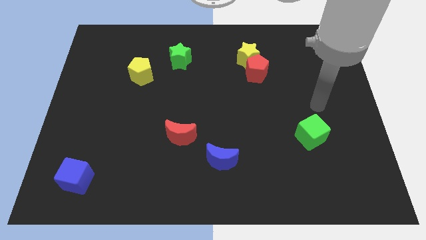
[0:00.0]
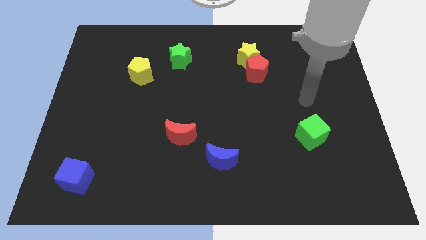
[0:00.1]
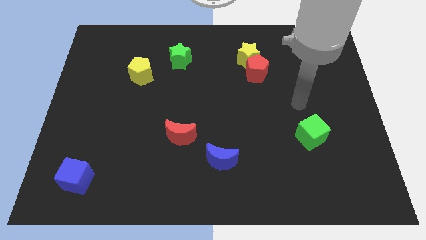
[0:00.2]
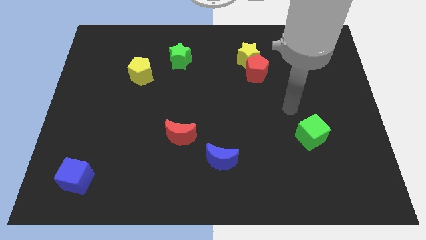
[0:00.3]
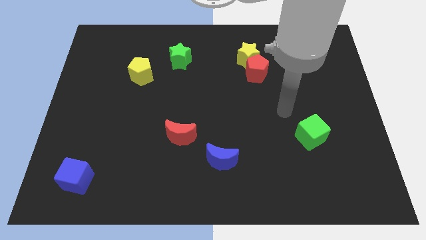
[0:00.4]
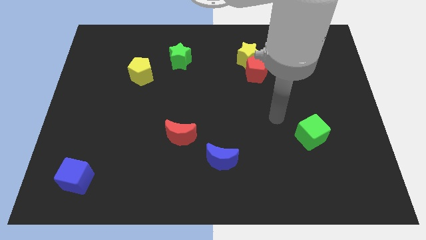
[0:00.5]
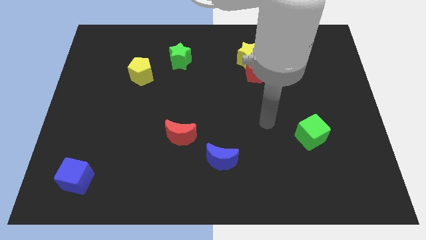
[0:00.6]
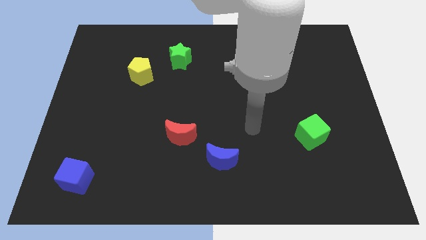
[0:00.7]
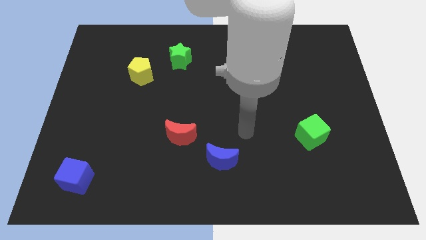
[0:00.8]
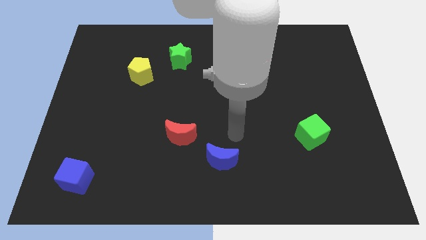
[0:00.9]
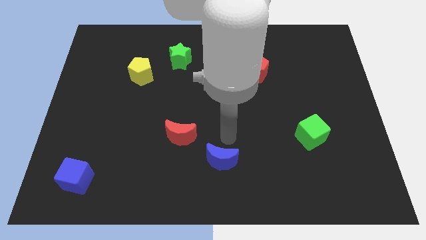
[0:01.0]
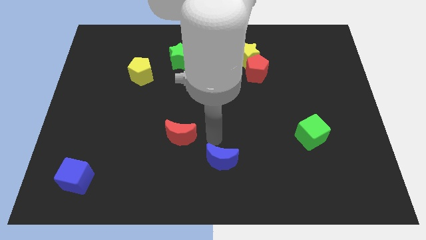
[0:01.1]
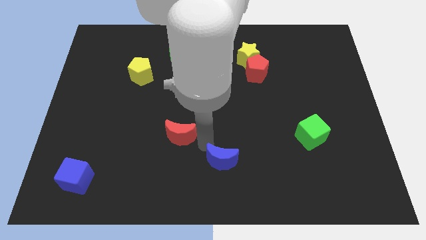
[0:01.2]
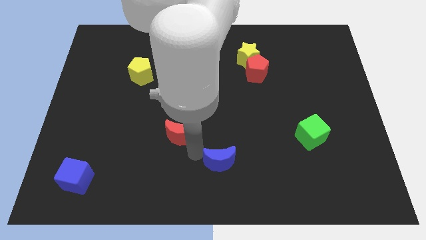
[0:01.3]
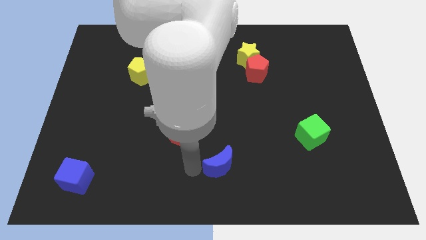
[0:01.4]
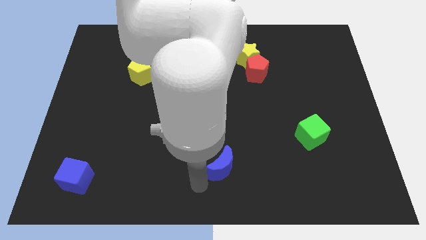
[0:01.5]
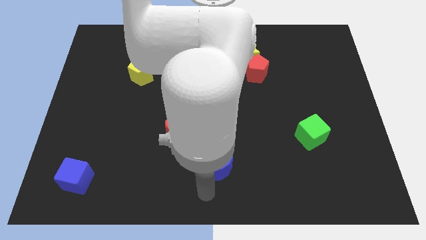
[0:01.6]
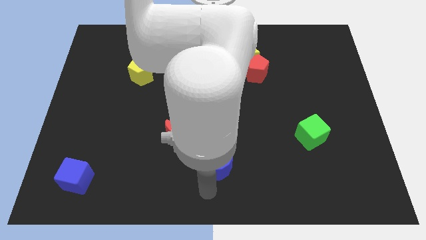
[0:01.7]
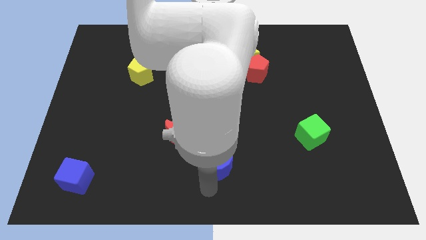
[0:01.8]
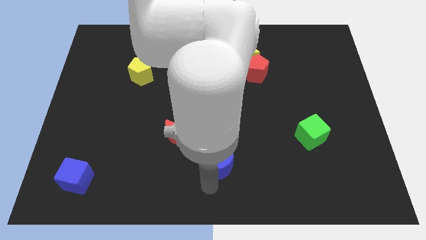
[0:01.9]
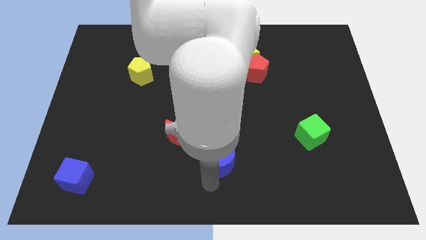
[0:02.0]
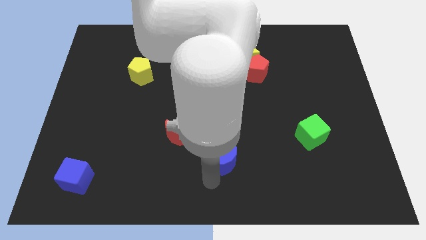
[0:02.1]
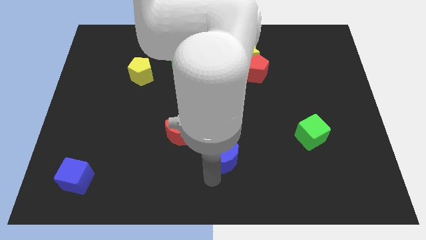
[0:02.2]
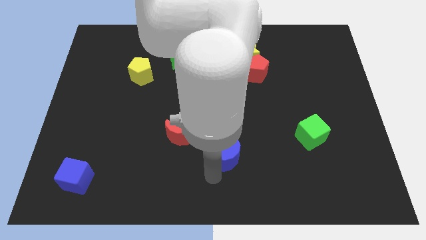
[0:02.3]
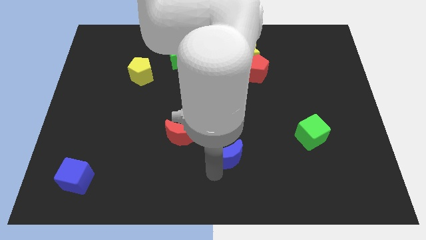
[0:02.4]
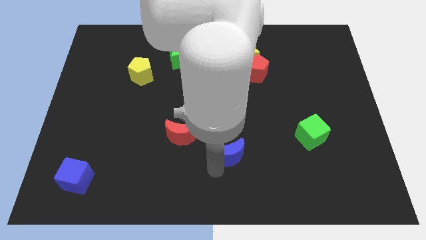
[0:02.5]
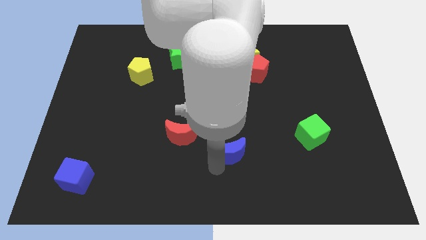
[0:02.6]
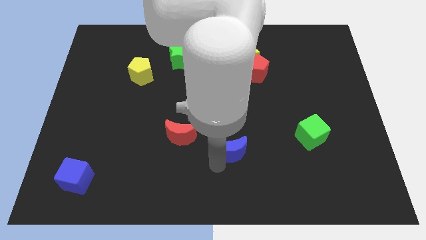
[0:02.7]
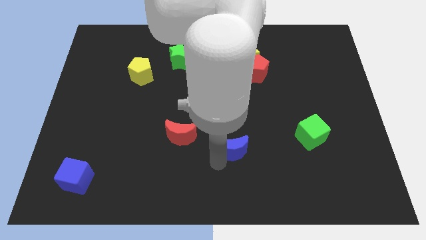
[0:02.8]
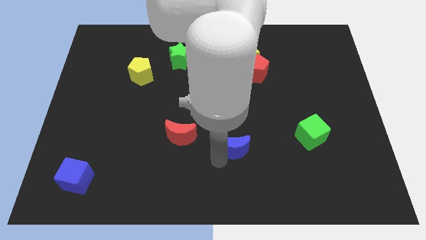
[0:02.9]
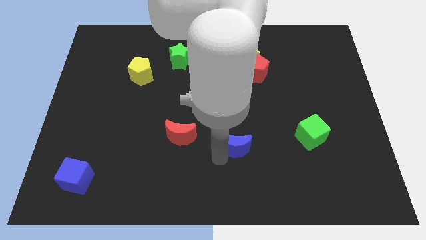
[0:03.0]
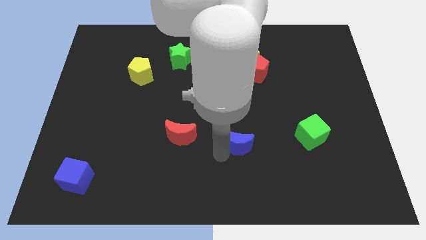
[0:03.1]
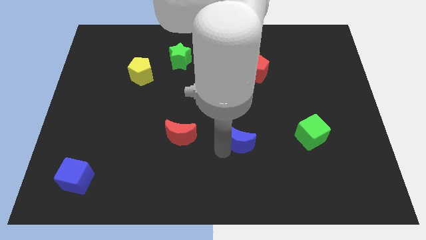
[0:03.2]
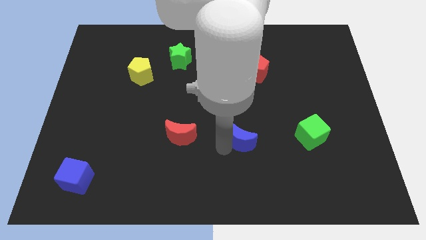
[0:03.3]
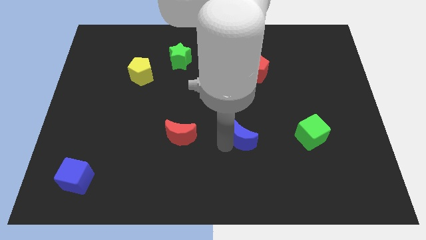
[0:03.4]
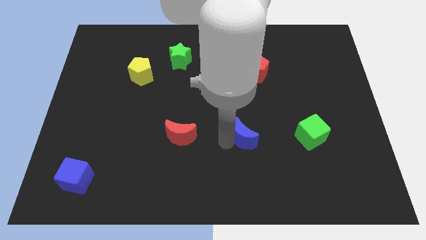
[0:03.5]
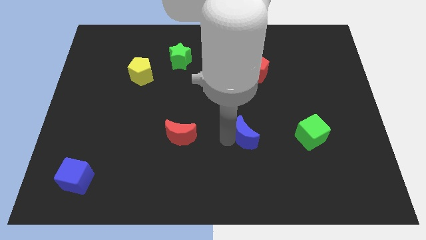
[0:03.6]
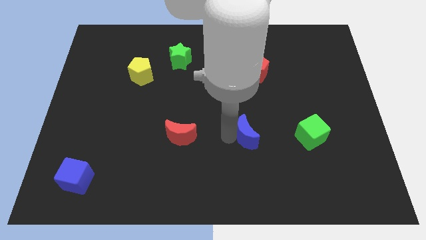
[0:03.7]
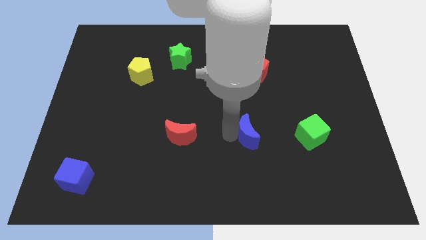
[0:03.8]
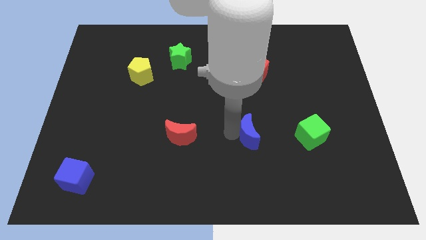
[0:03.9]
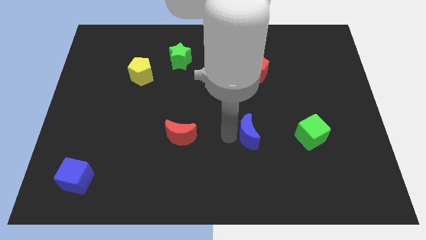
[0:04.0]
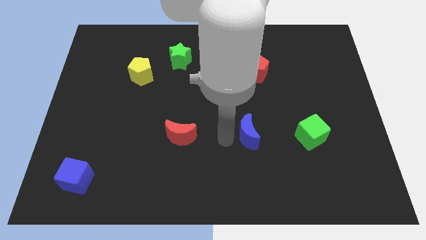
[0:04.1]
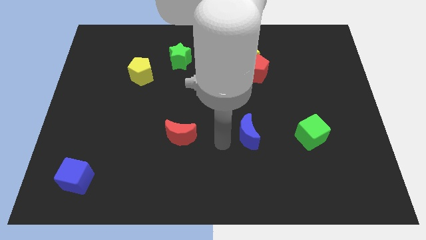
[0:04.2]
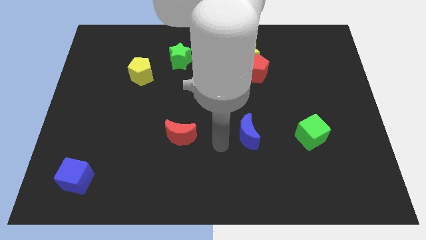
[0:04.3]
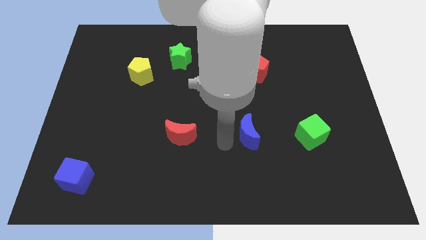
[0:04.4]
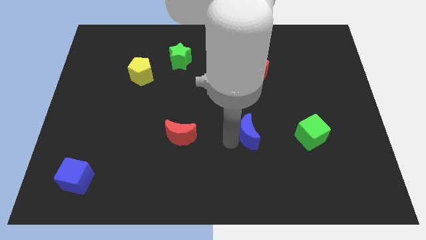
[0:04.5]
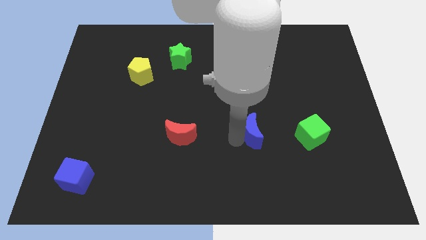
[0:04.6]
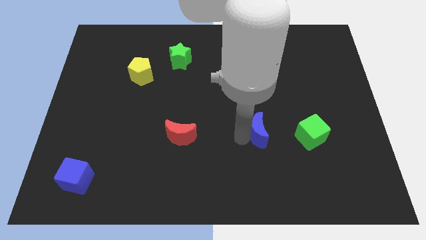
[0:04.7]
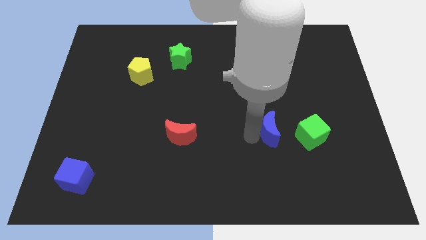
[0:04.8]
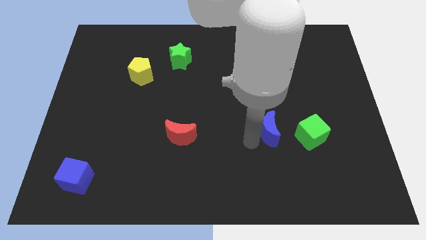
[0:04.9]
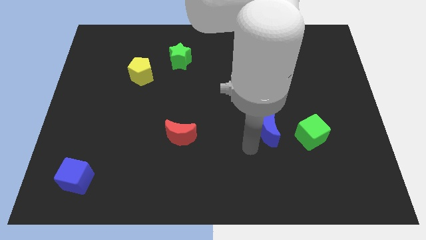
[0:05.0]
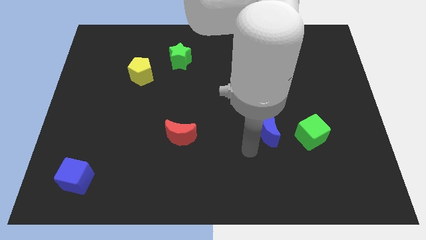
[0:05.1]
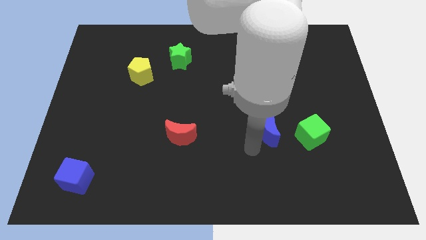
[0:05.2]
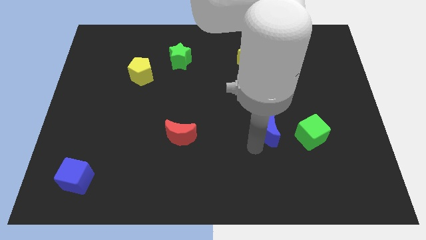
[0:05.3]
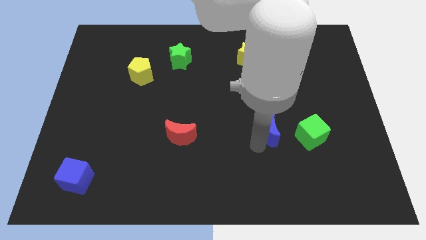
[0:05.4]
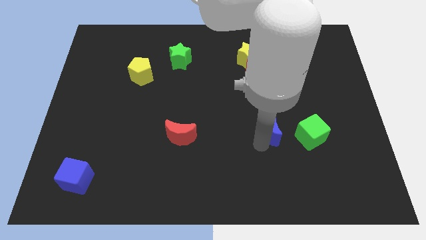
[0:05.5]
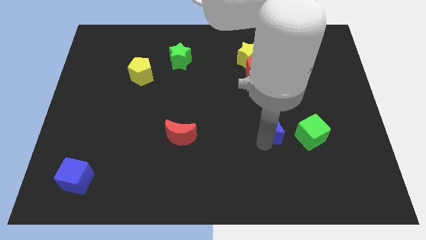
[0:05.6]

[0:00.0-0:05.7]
move the blue moon to the top left side of the green cube
